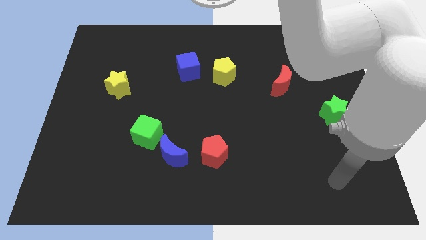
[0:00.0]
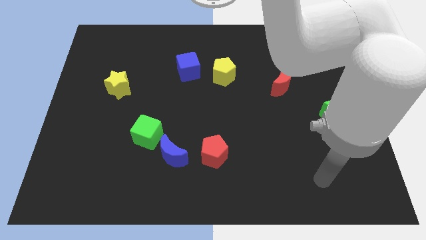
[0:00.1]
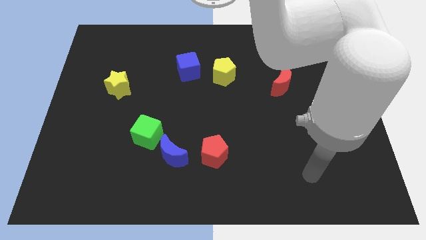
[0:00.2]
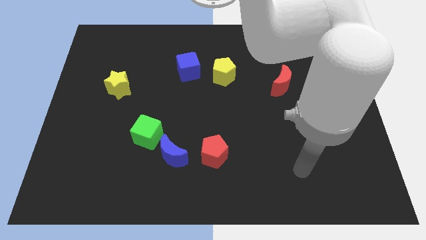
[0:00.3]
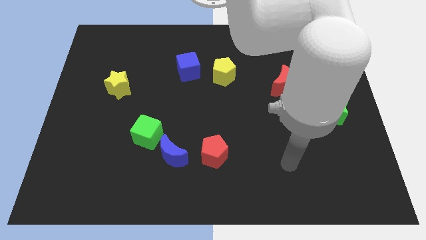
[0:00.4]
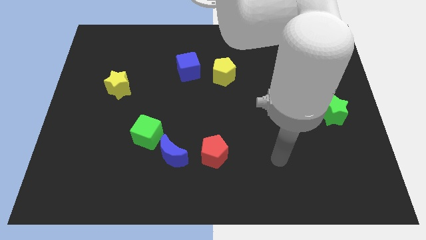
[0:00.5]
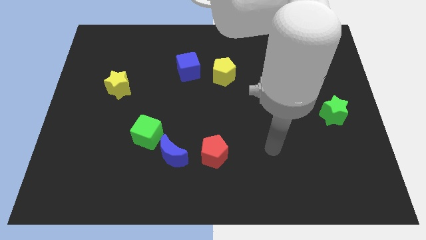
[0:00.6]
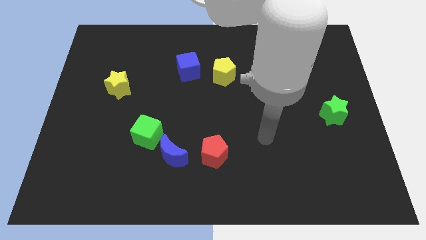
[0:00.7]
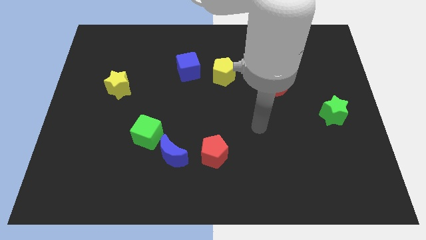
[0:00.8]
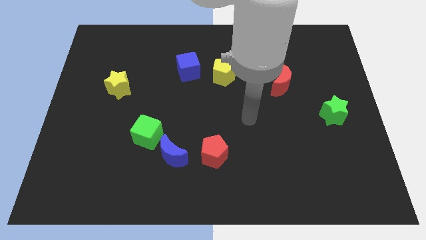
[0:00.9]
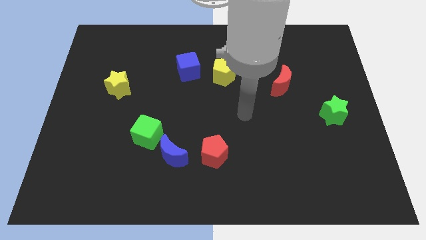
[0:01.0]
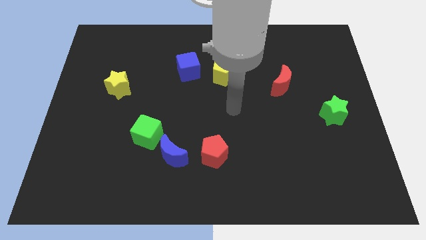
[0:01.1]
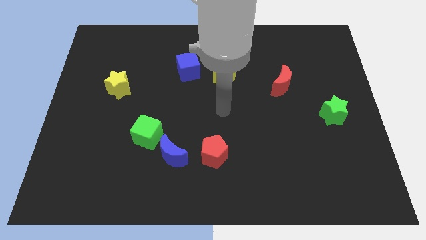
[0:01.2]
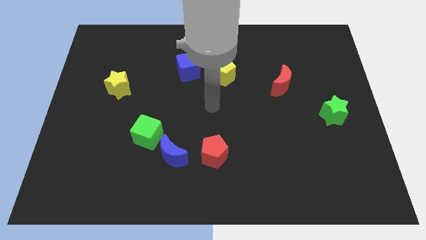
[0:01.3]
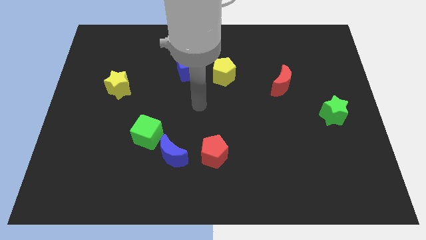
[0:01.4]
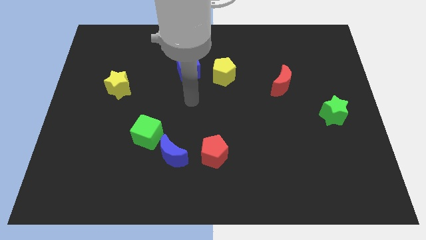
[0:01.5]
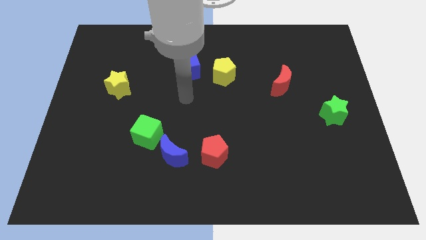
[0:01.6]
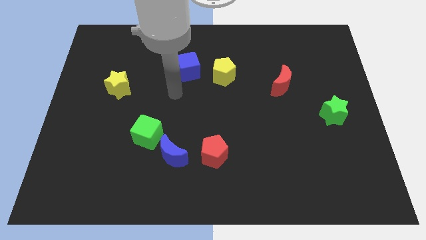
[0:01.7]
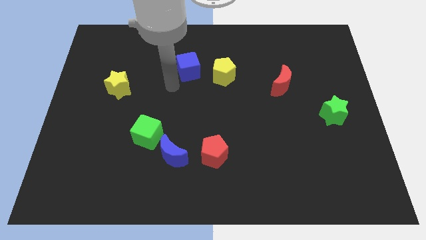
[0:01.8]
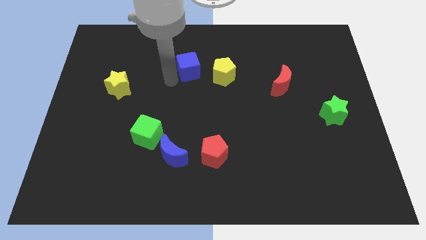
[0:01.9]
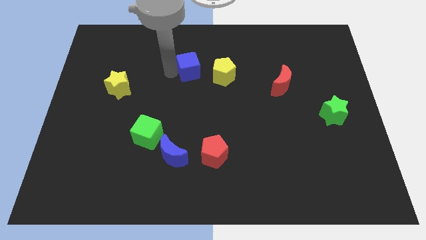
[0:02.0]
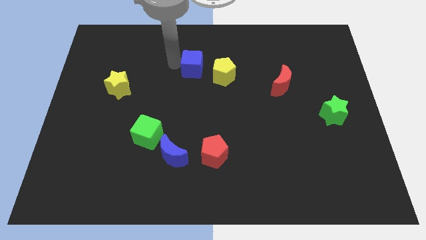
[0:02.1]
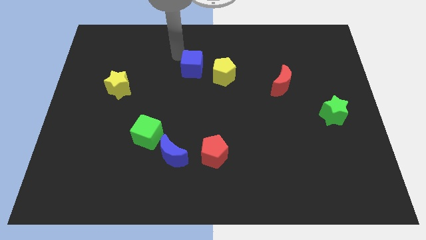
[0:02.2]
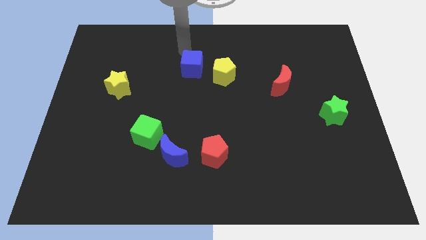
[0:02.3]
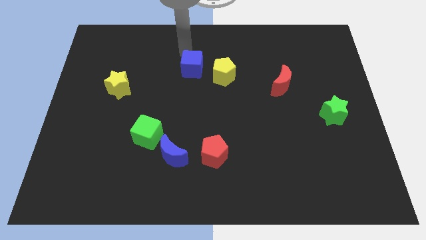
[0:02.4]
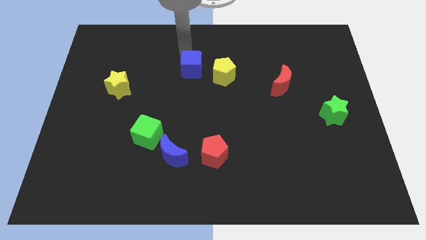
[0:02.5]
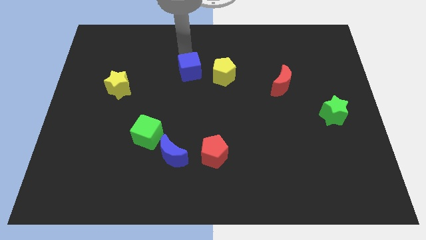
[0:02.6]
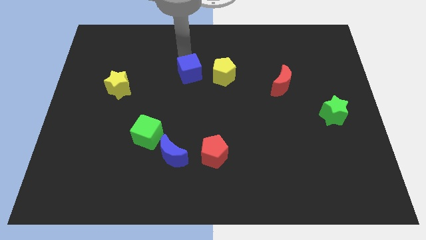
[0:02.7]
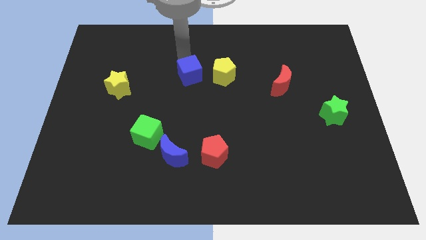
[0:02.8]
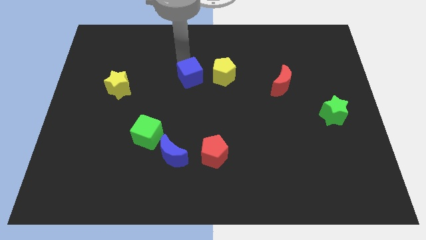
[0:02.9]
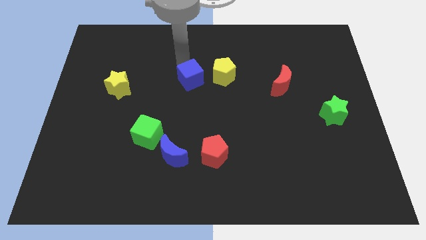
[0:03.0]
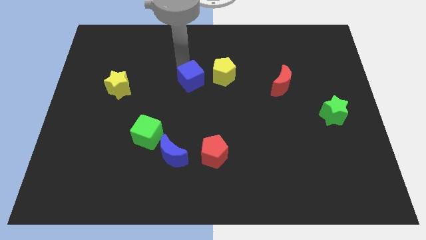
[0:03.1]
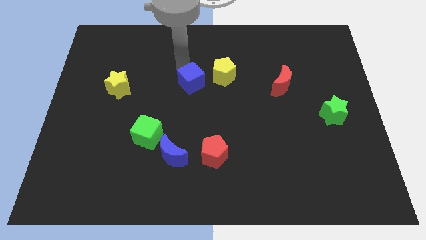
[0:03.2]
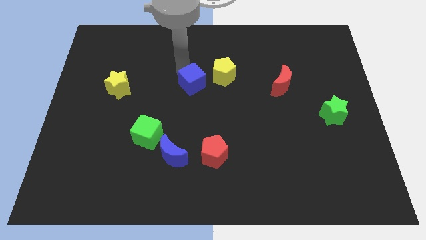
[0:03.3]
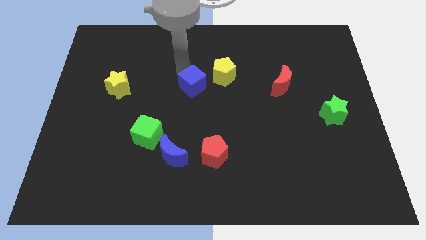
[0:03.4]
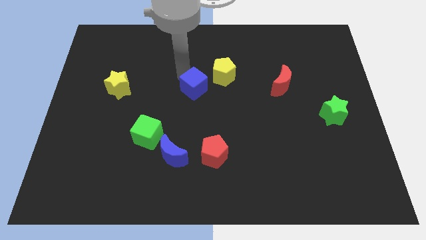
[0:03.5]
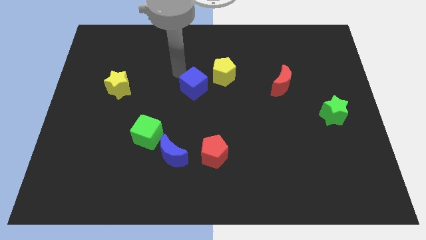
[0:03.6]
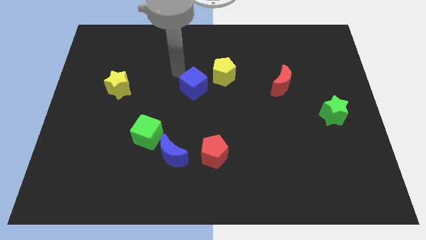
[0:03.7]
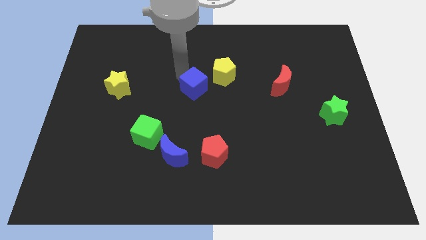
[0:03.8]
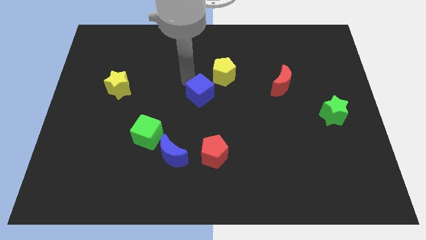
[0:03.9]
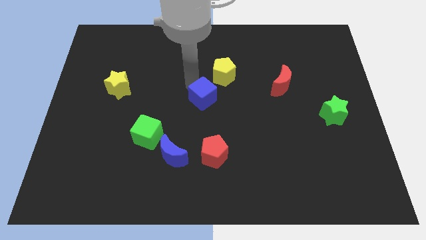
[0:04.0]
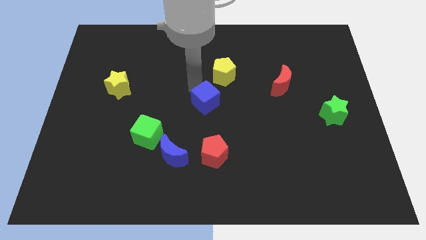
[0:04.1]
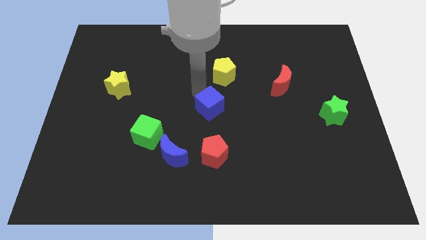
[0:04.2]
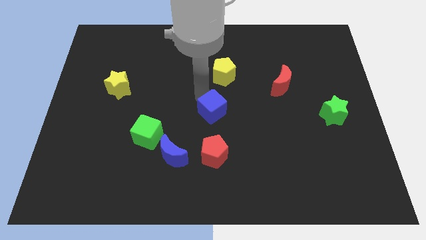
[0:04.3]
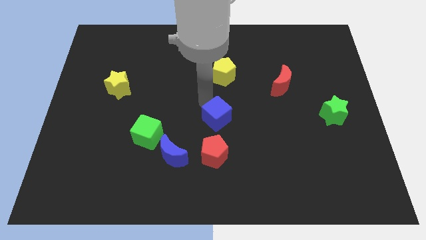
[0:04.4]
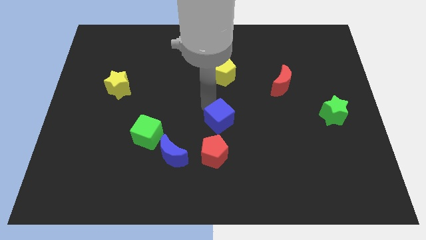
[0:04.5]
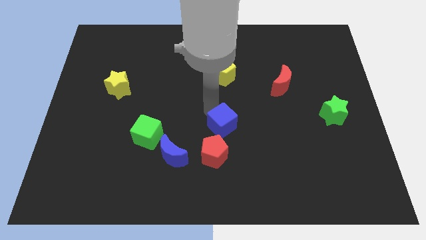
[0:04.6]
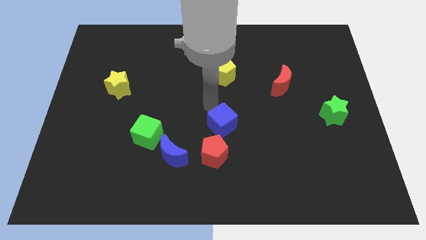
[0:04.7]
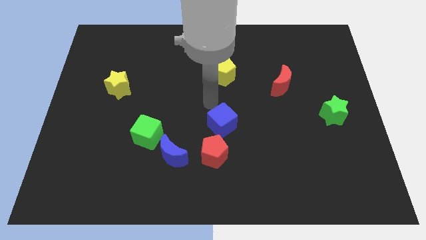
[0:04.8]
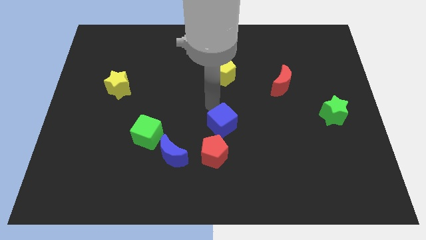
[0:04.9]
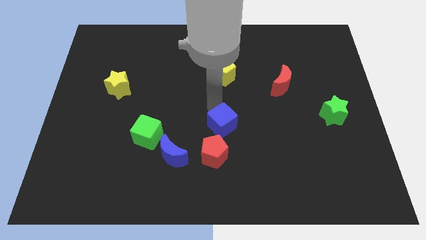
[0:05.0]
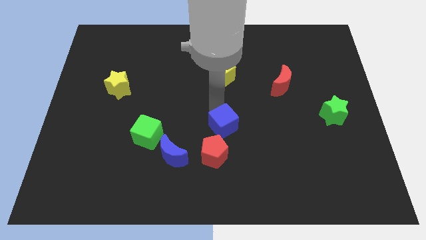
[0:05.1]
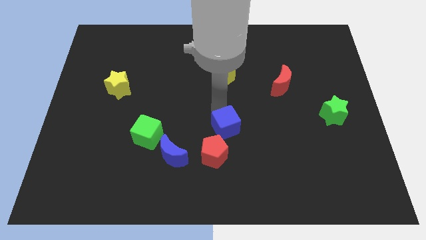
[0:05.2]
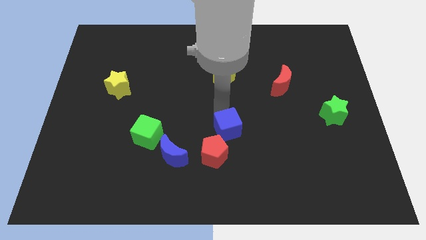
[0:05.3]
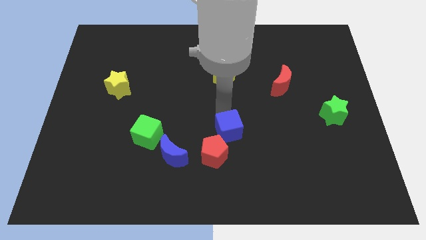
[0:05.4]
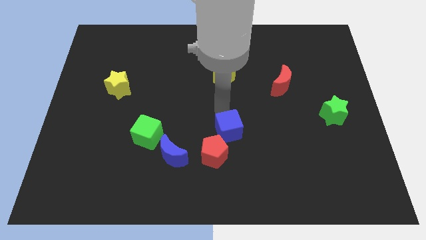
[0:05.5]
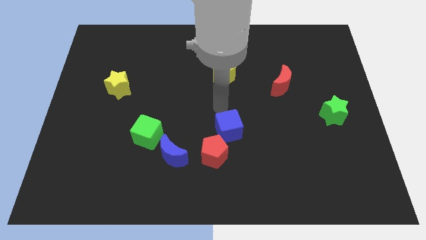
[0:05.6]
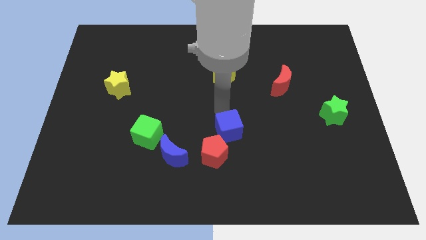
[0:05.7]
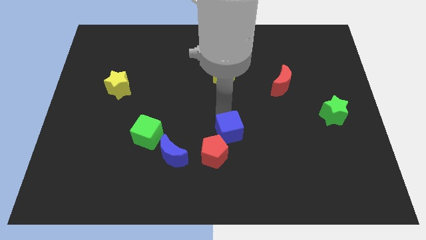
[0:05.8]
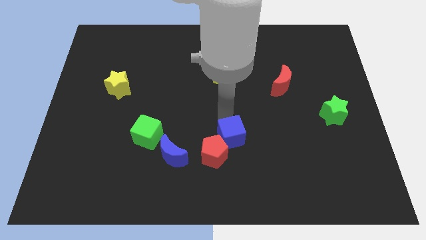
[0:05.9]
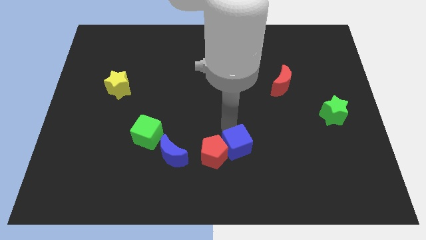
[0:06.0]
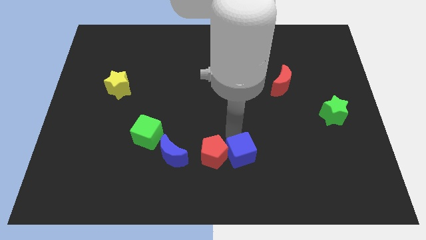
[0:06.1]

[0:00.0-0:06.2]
slide the blue cube to the bottom right of the red pentagon
